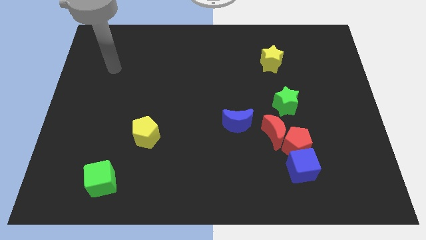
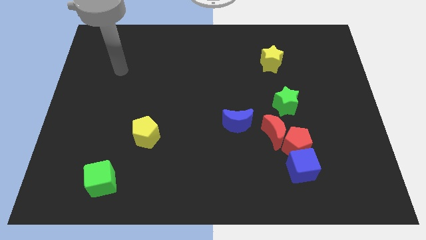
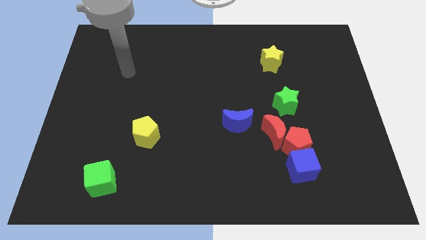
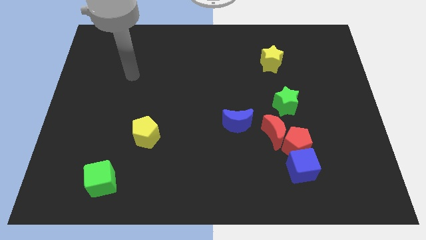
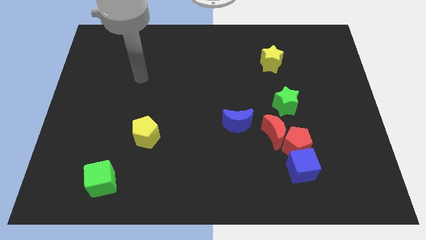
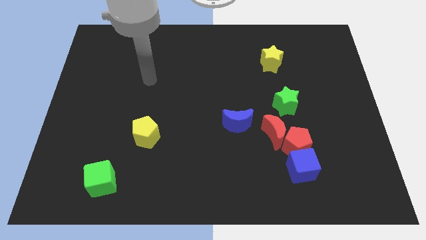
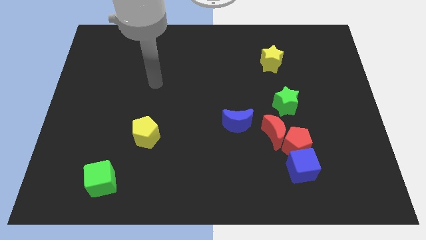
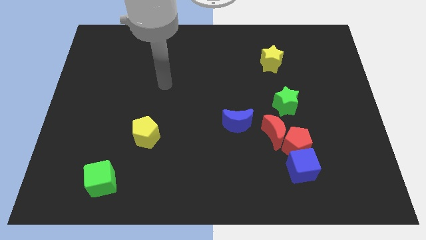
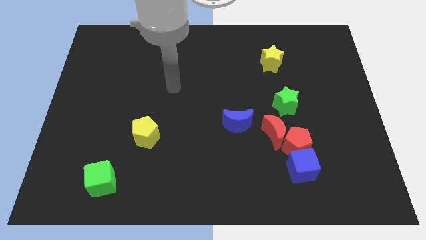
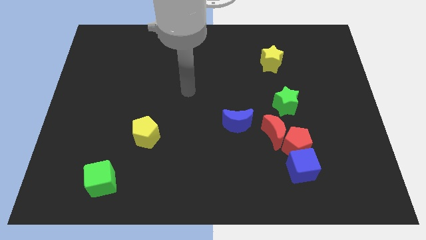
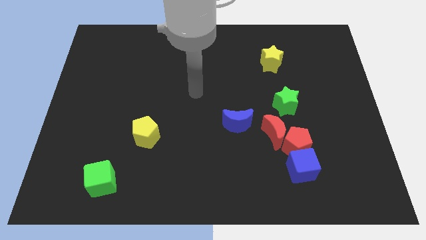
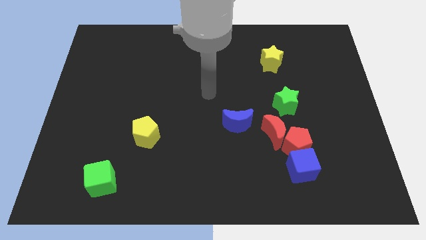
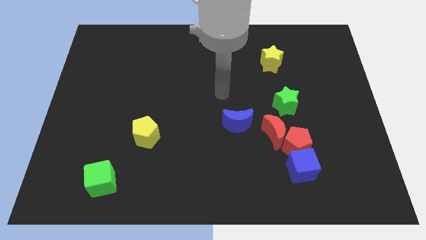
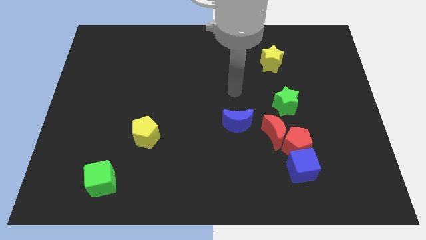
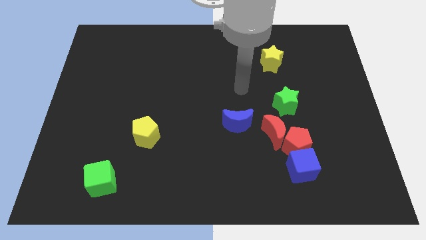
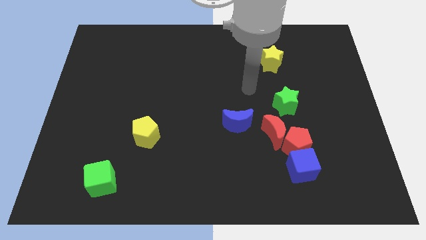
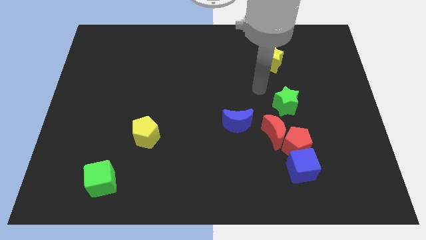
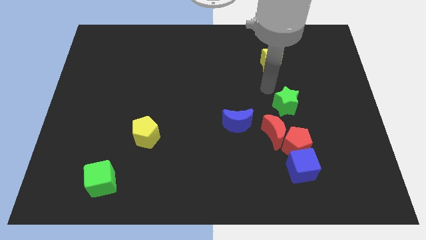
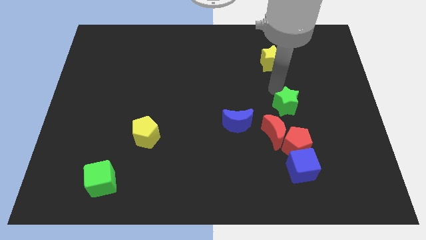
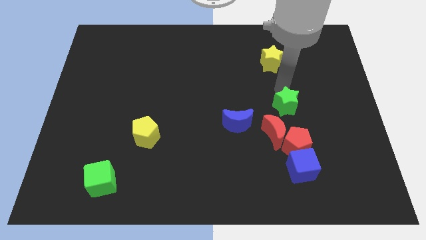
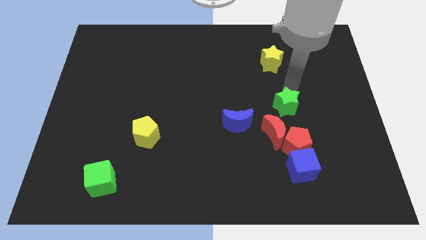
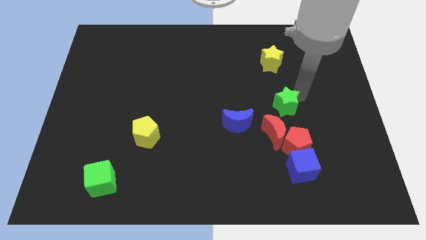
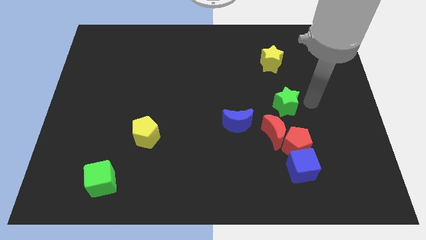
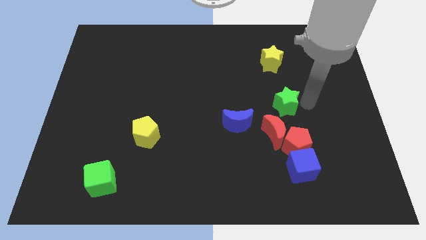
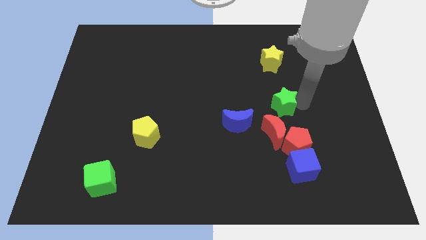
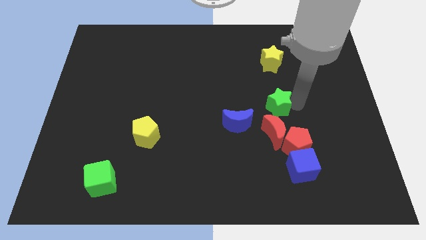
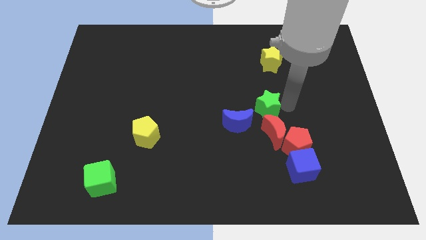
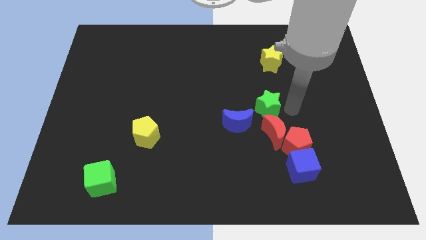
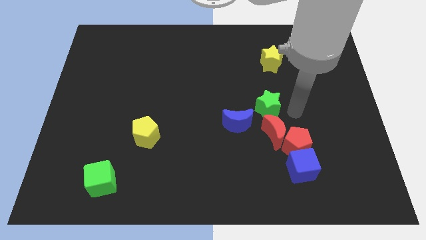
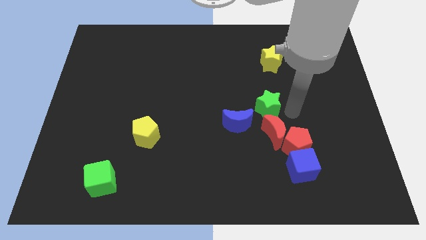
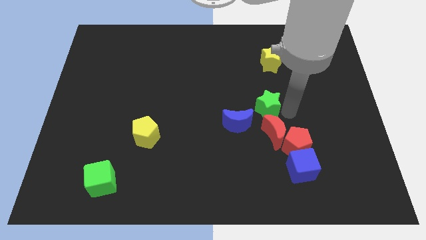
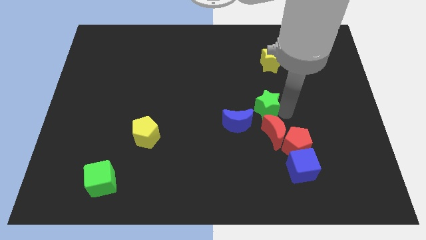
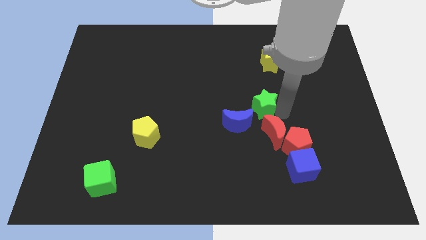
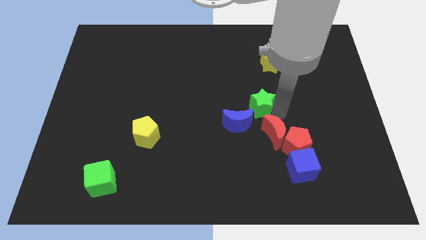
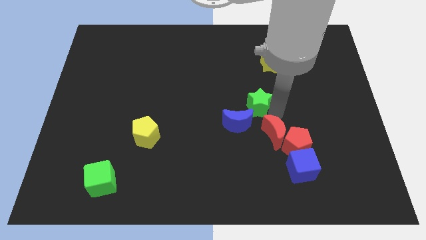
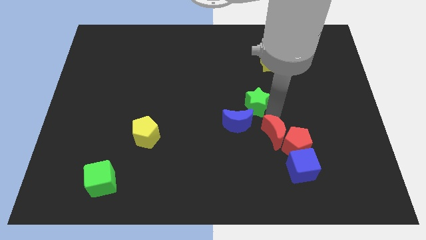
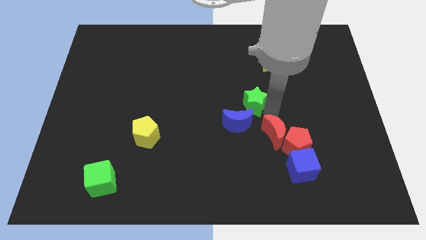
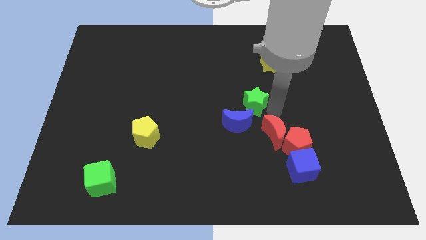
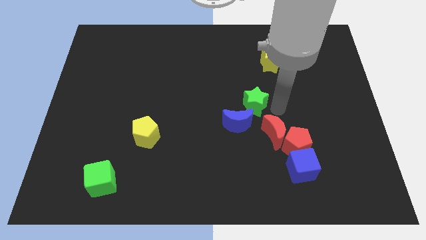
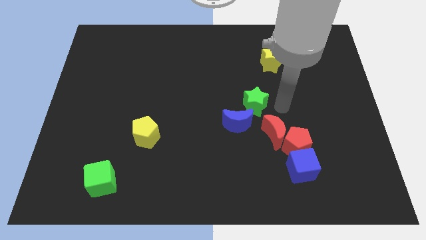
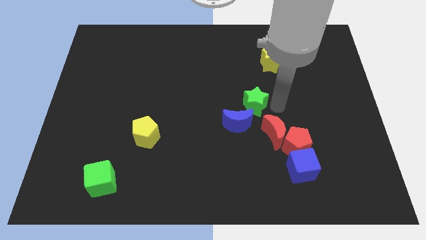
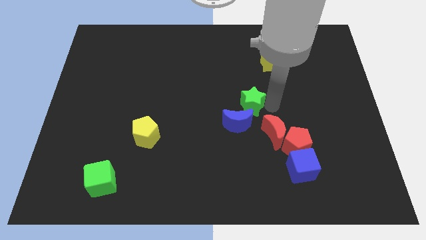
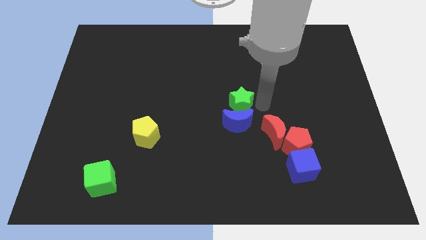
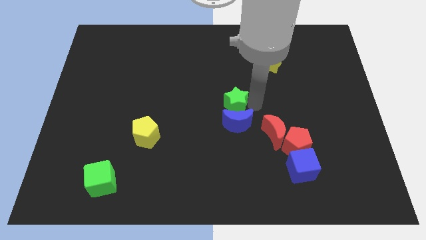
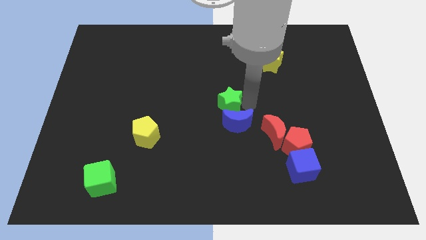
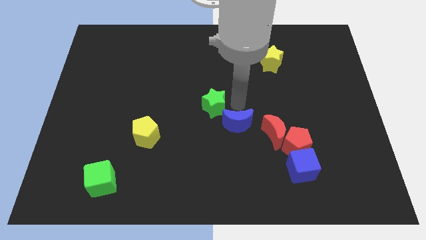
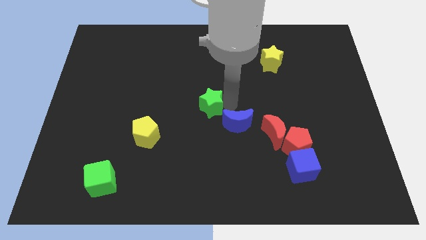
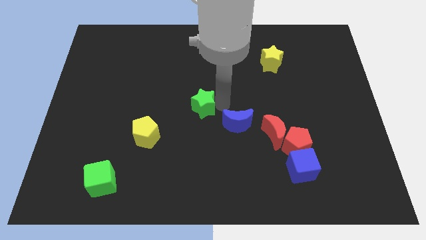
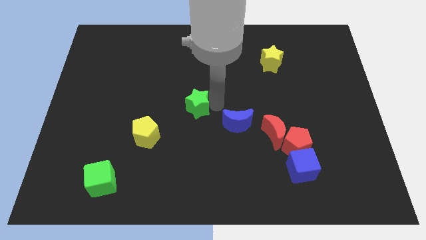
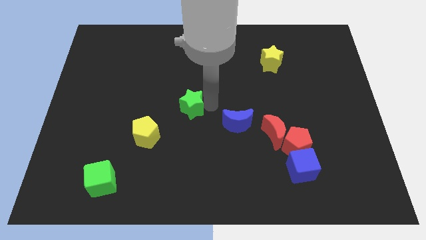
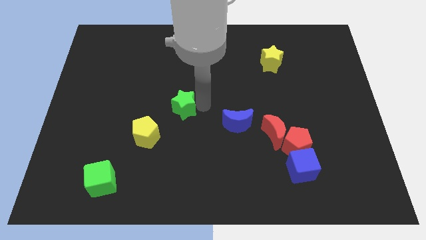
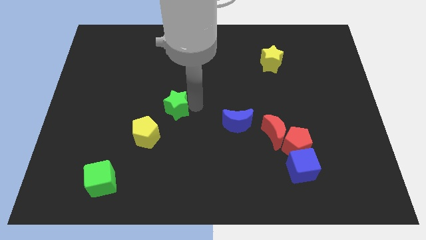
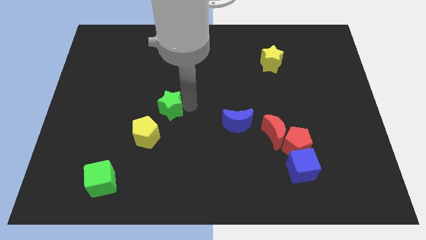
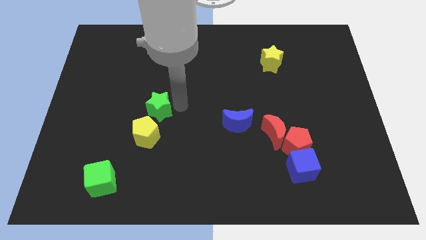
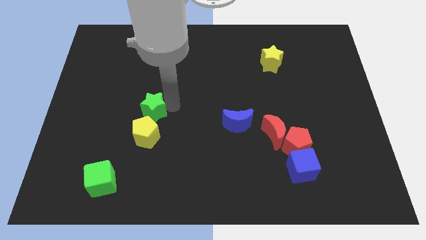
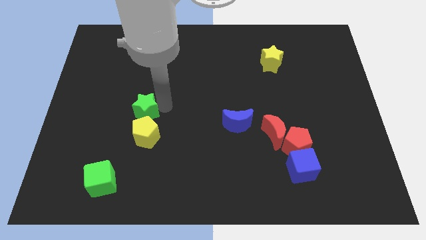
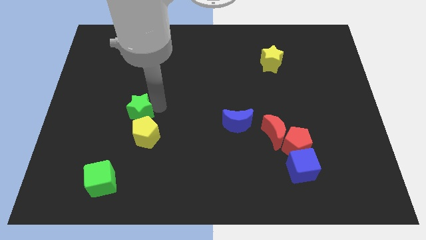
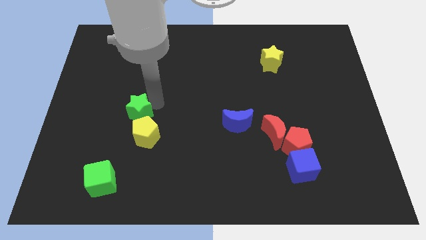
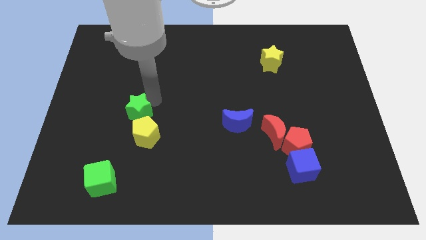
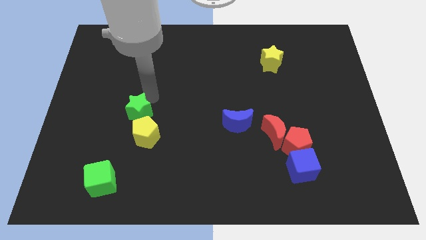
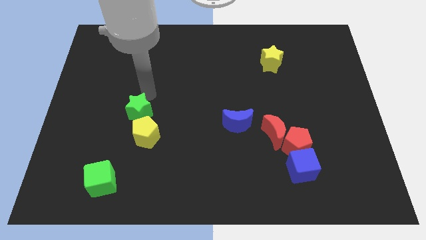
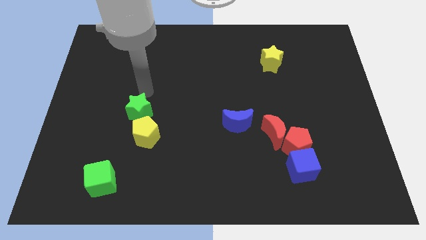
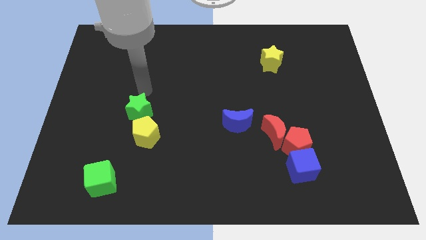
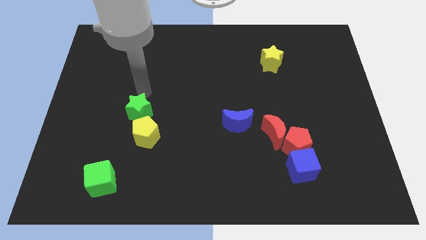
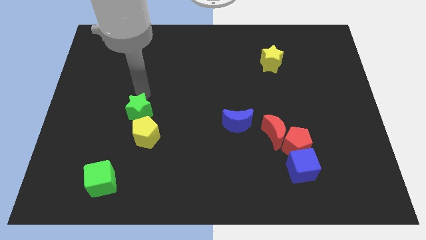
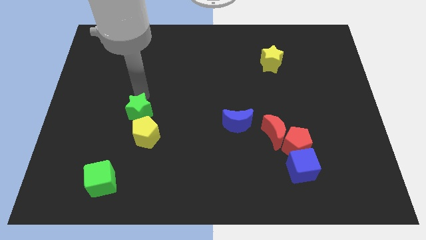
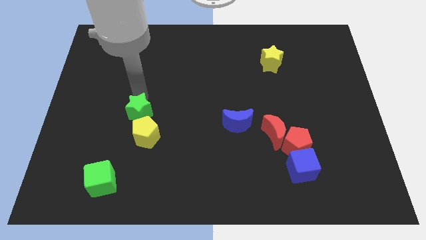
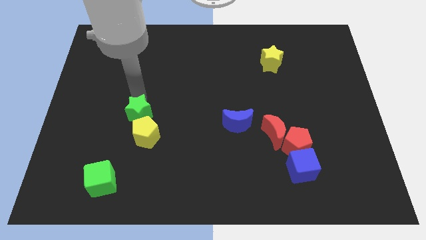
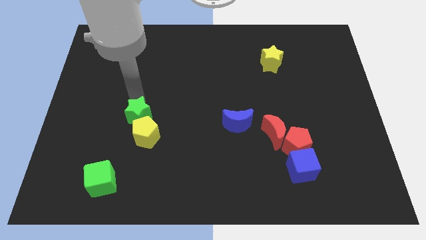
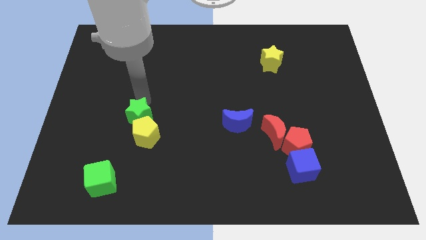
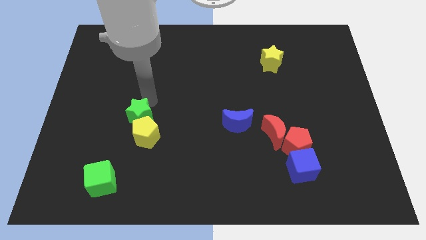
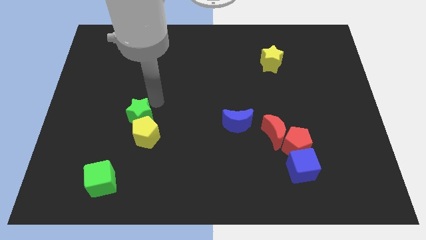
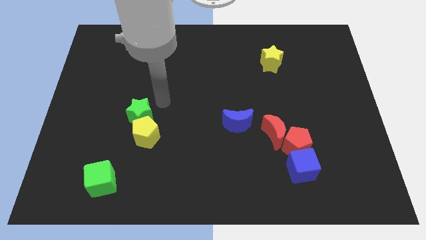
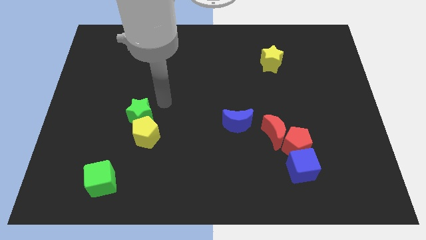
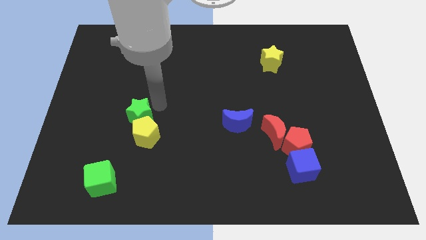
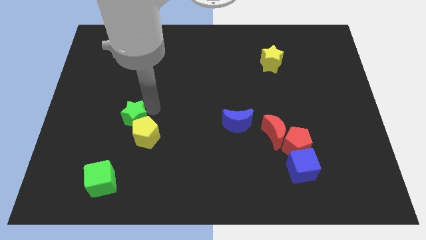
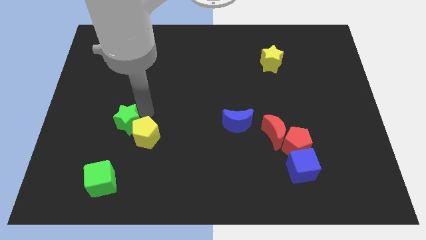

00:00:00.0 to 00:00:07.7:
push the green star left of the yellow pentagon
